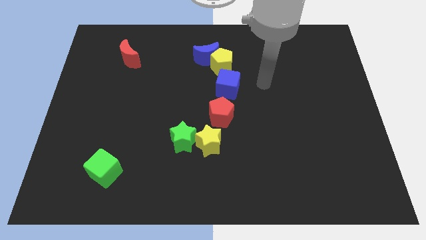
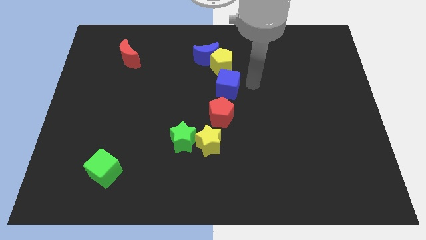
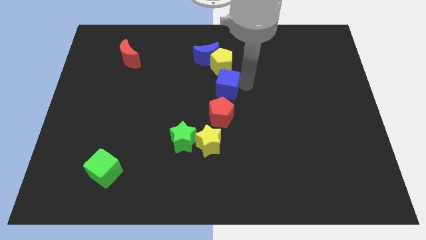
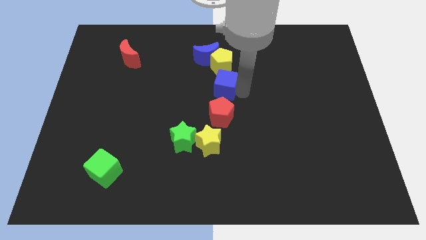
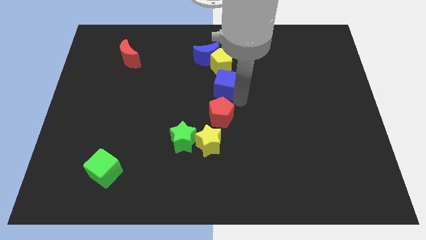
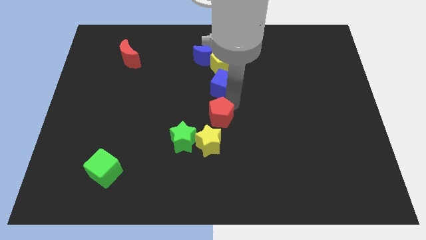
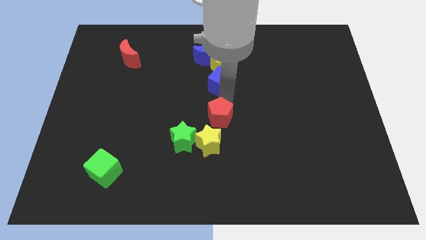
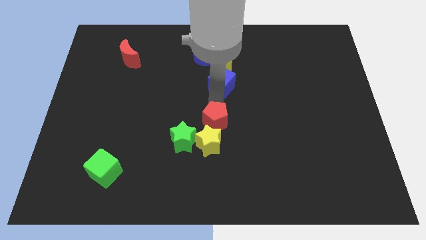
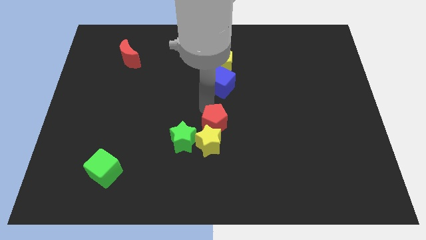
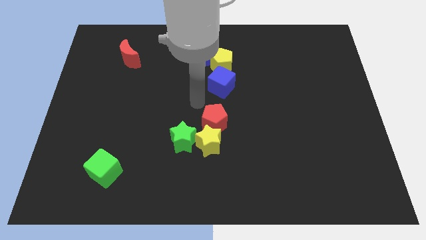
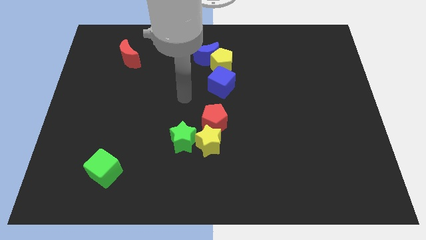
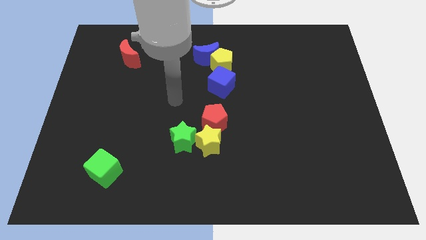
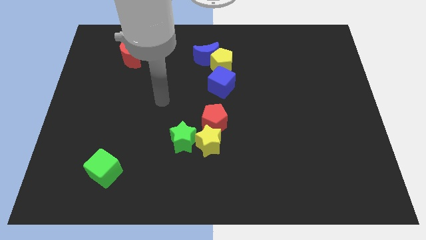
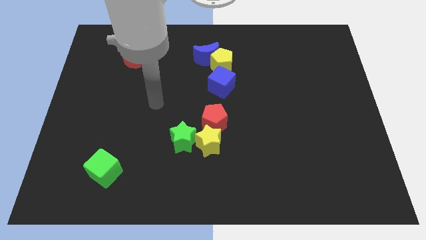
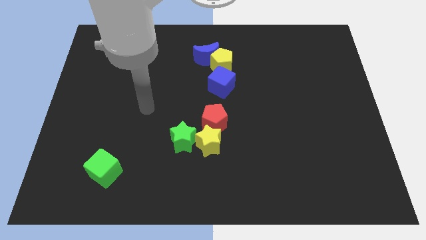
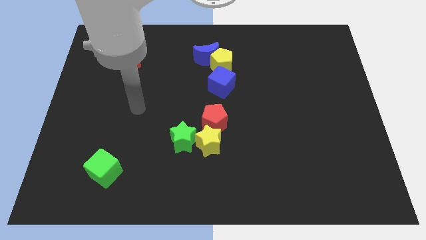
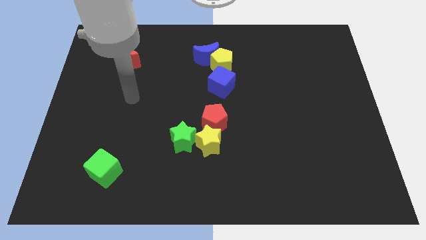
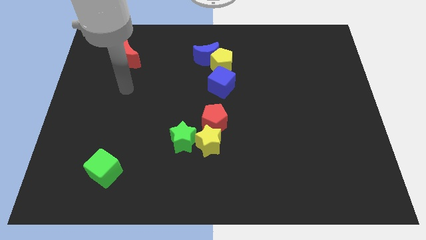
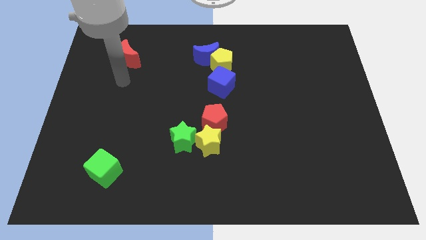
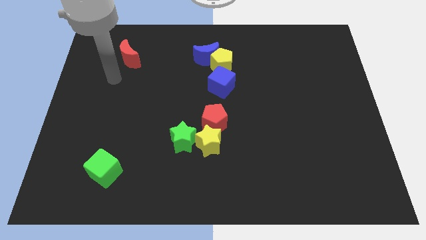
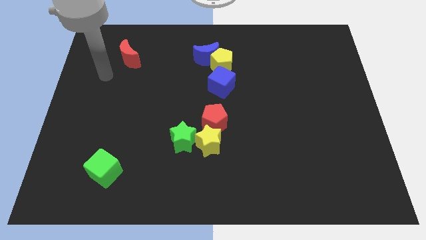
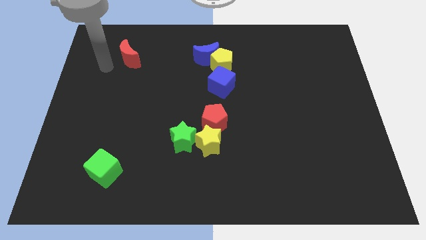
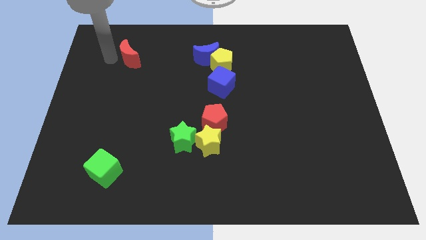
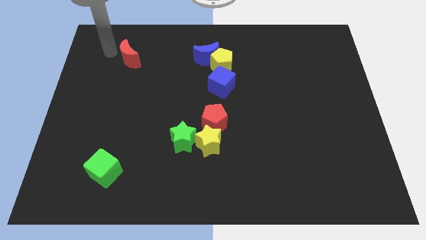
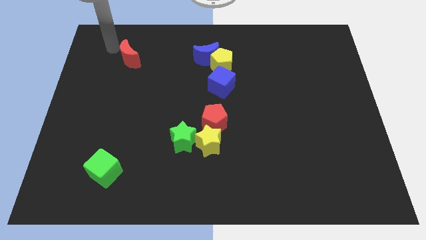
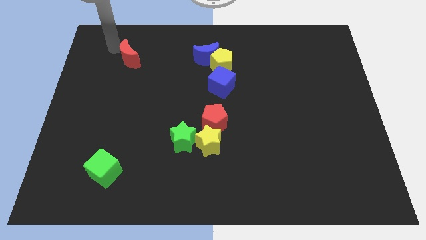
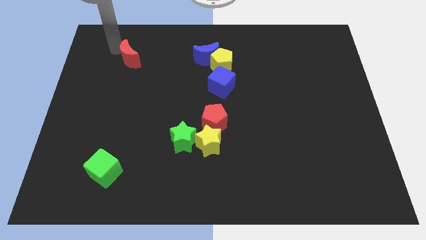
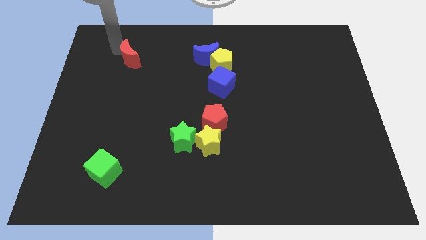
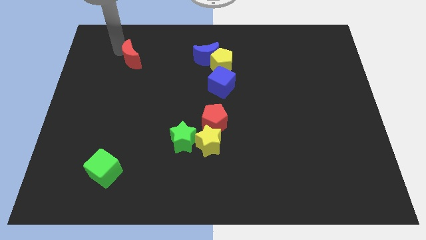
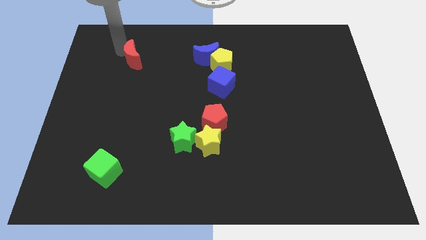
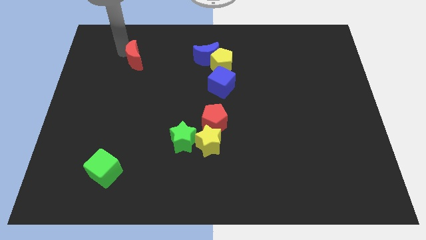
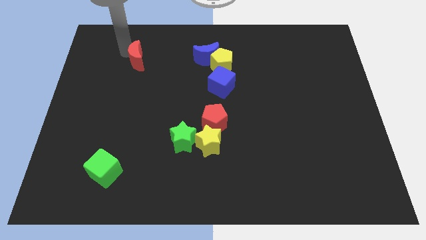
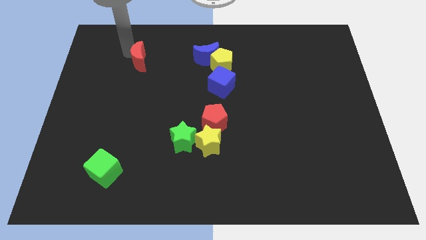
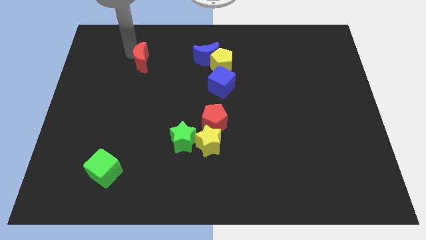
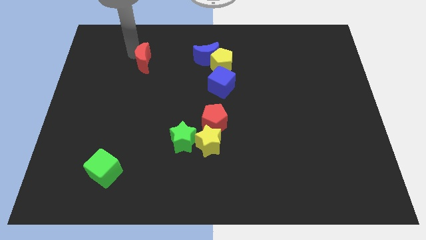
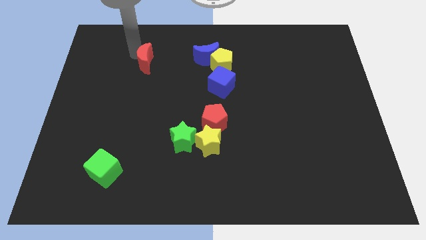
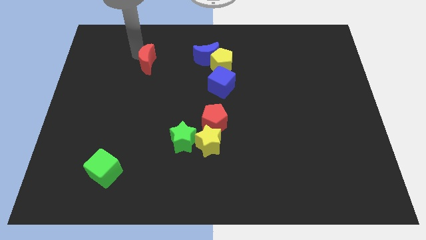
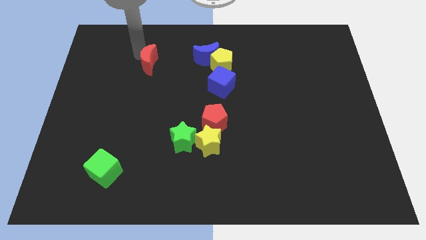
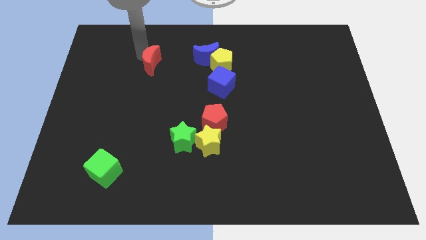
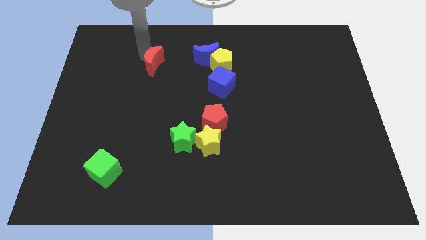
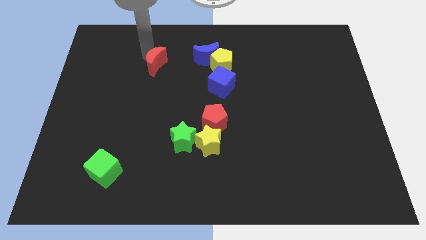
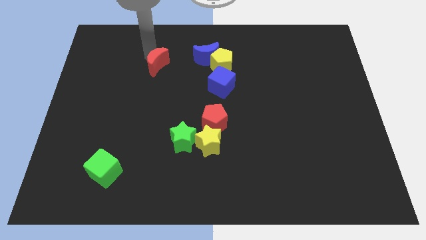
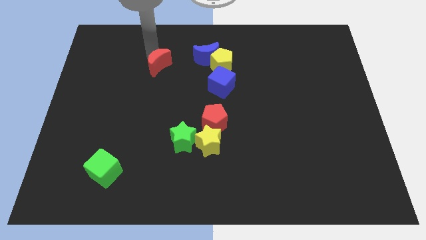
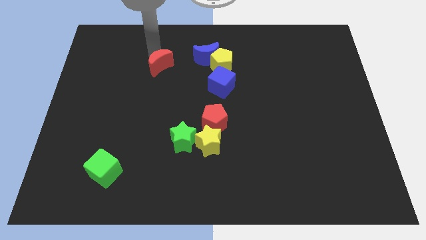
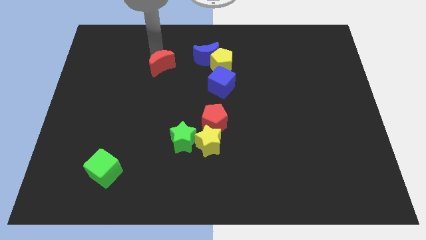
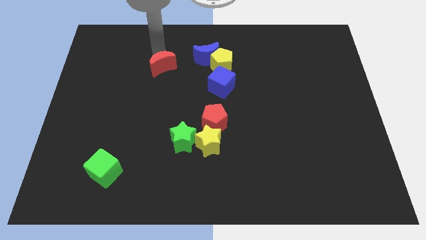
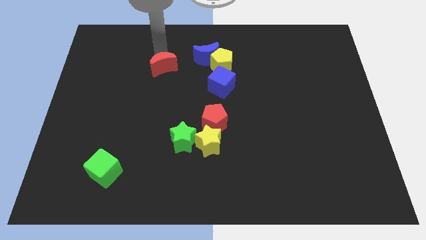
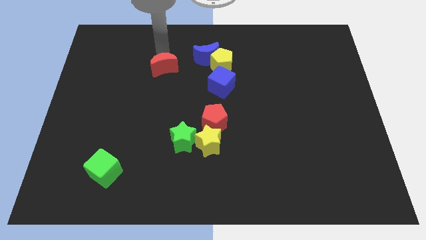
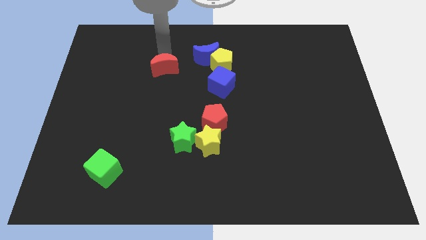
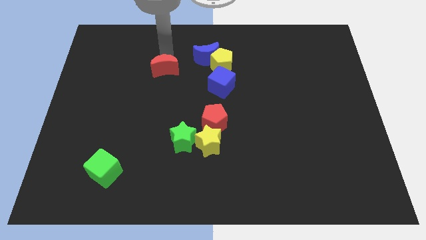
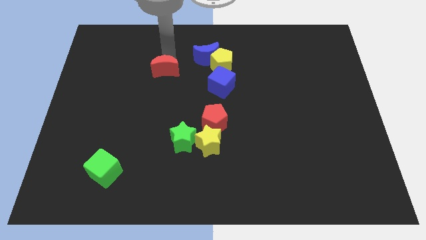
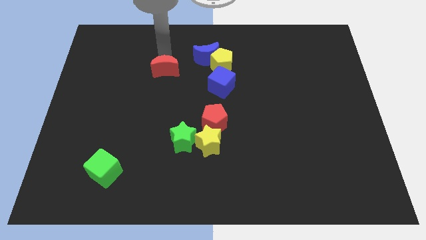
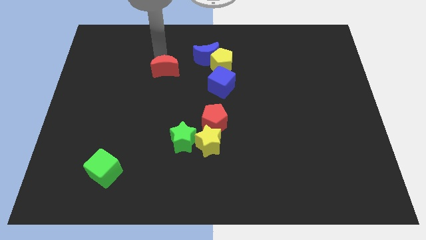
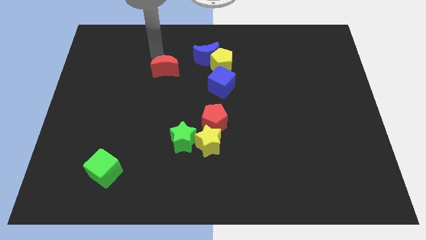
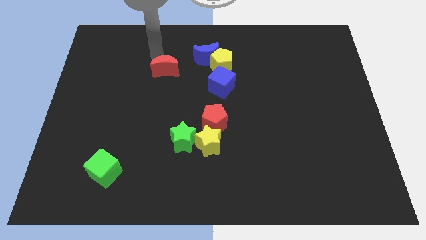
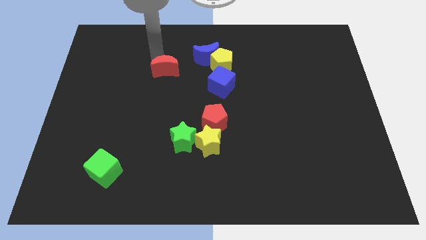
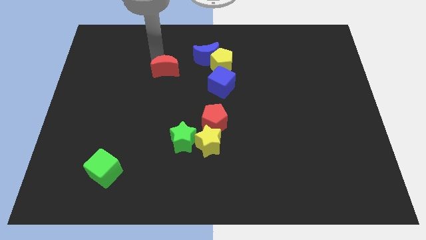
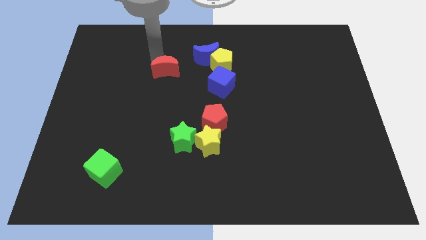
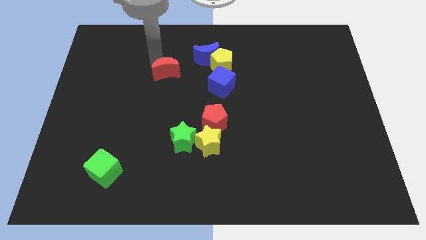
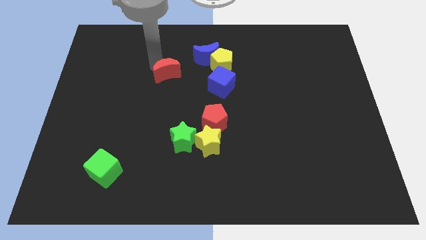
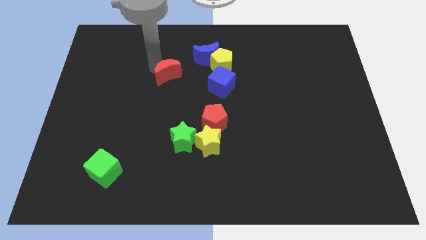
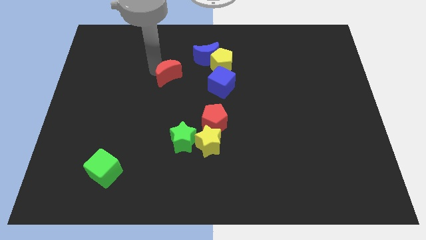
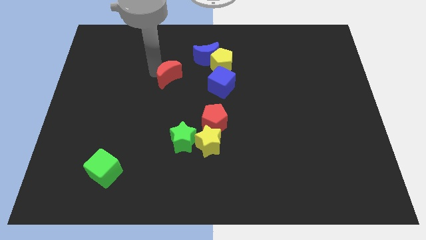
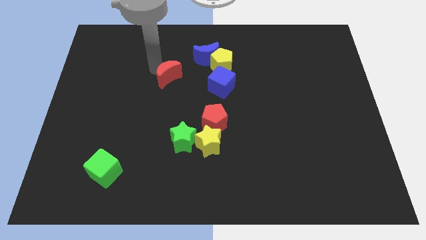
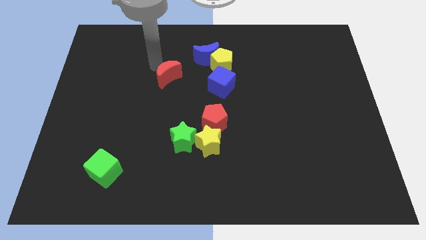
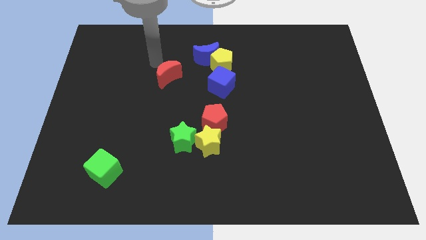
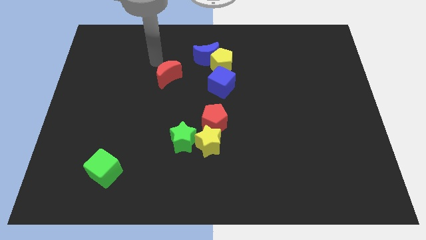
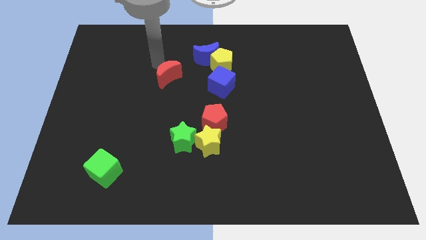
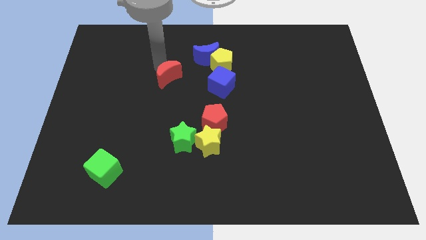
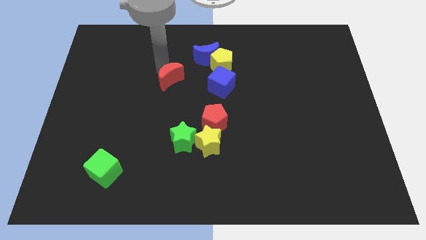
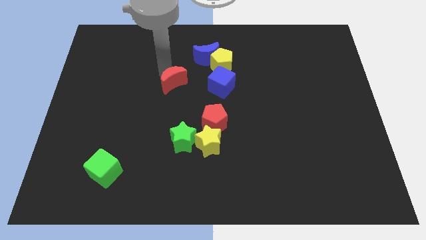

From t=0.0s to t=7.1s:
put the red moon to the middle of the board

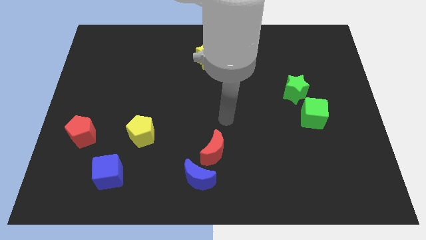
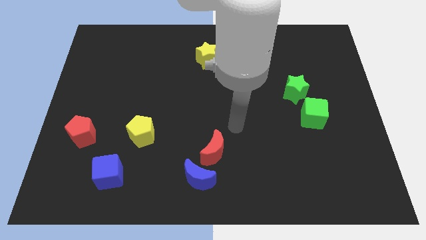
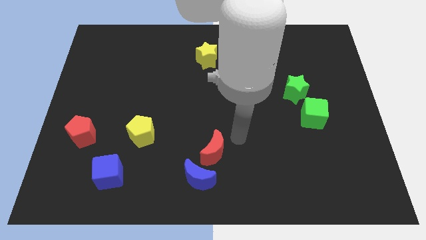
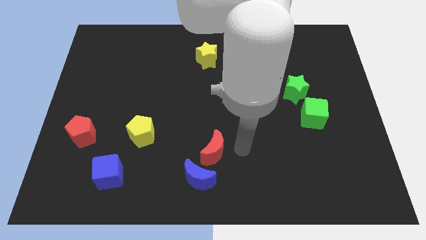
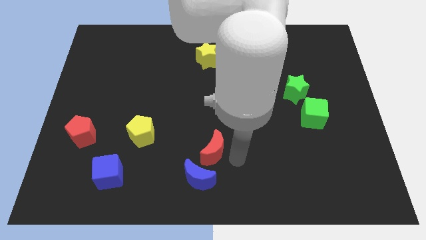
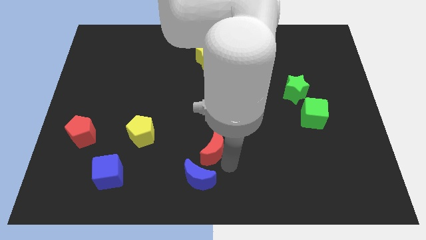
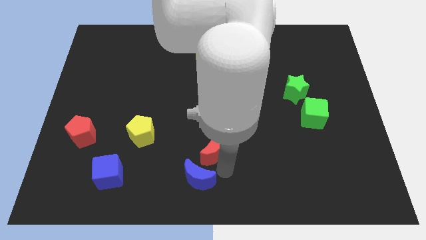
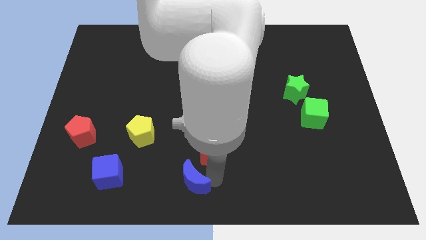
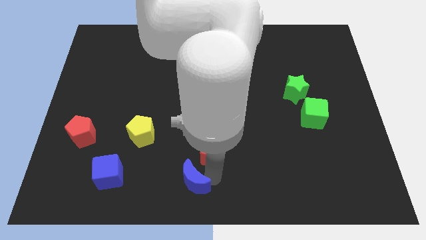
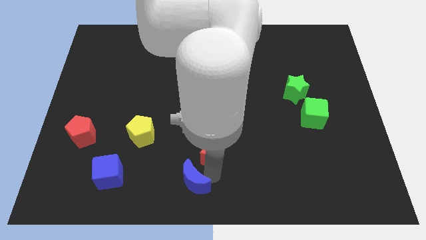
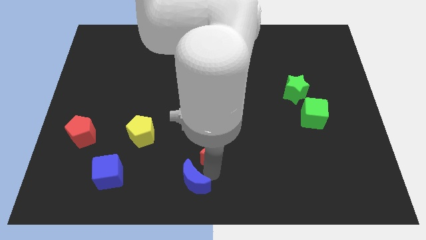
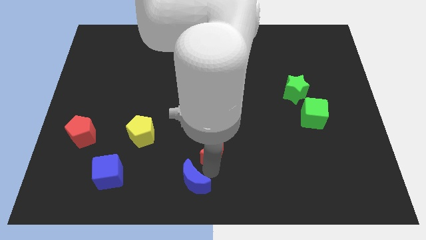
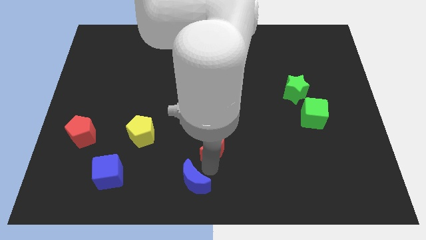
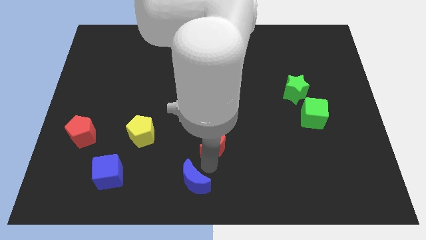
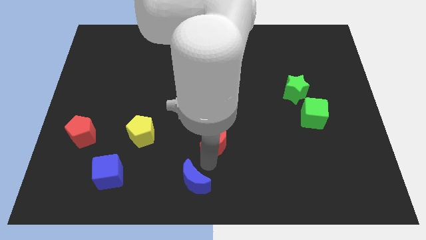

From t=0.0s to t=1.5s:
move the red moon to the center
